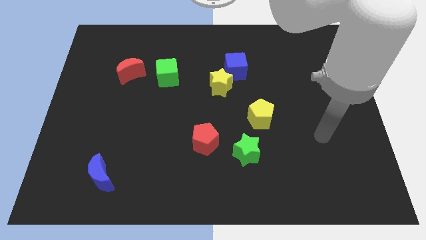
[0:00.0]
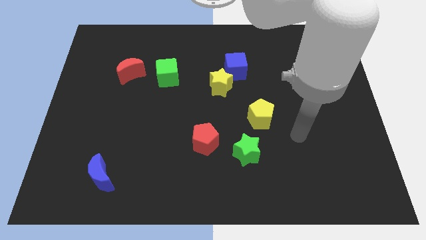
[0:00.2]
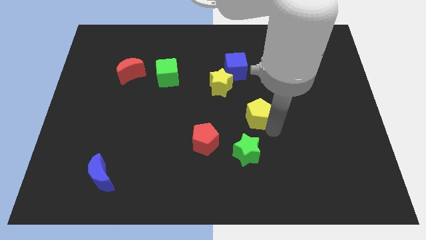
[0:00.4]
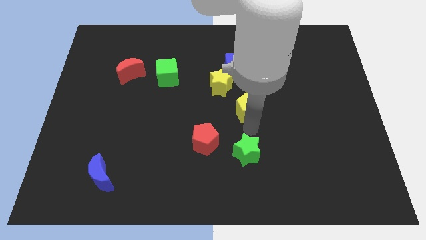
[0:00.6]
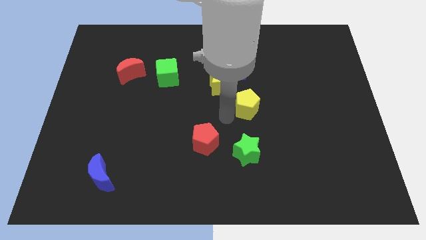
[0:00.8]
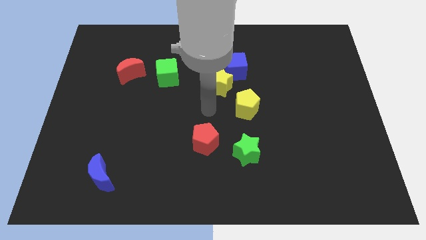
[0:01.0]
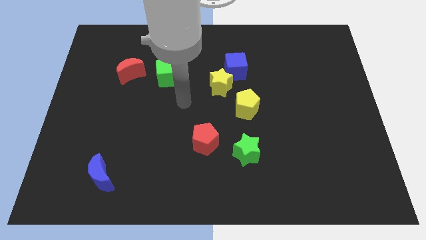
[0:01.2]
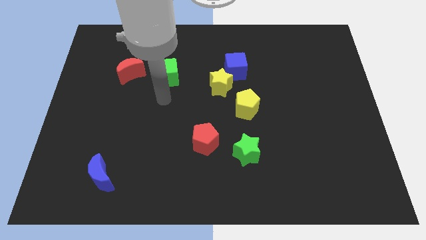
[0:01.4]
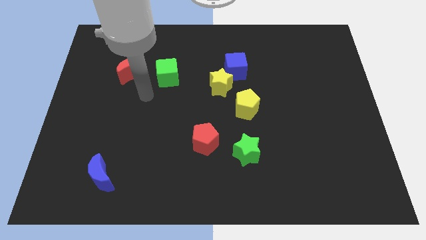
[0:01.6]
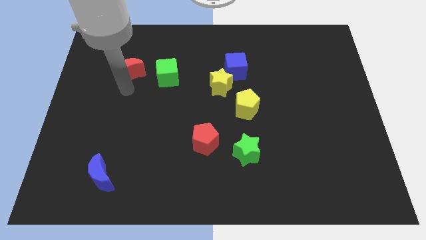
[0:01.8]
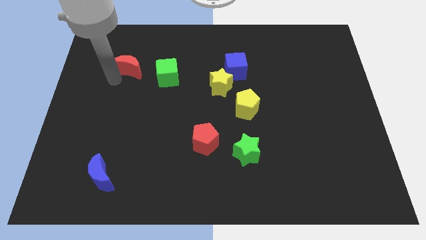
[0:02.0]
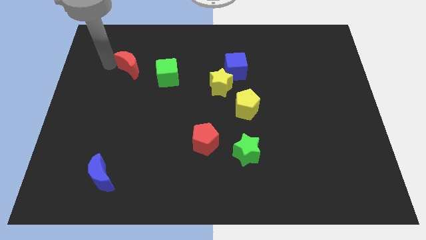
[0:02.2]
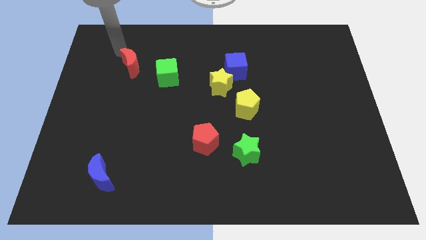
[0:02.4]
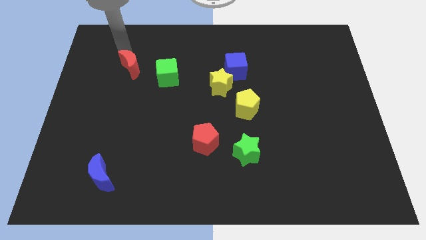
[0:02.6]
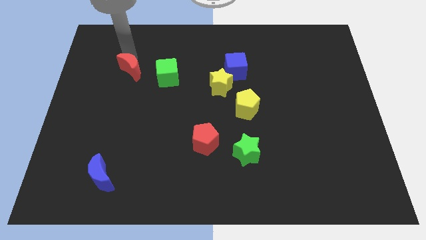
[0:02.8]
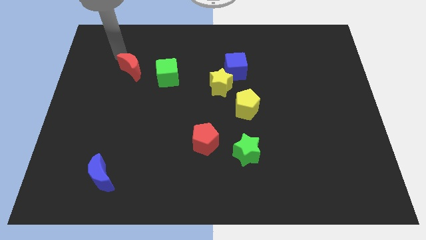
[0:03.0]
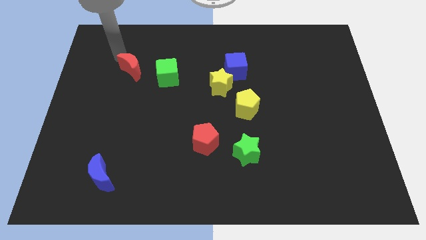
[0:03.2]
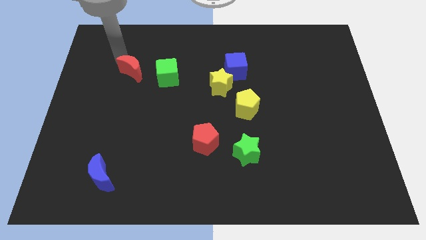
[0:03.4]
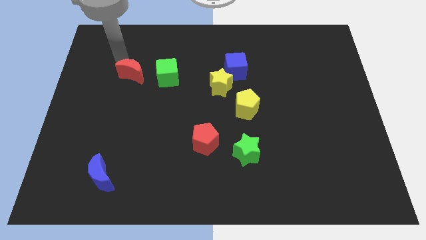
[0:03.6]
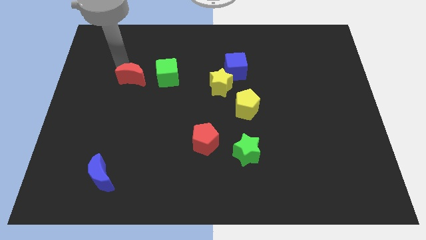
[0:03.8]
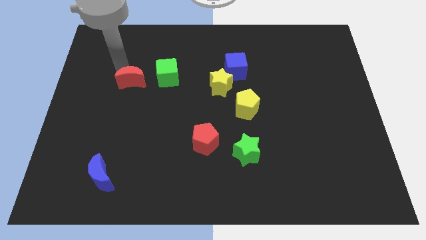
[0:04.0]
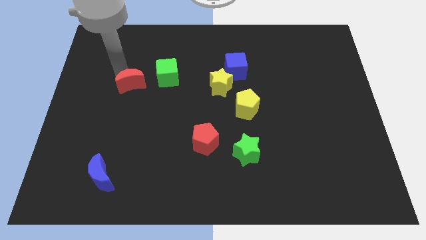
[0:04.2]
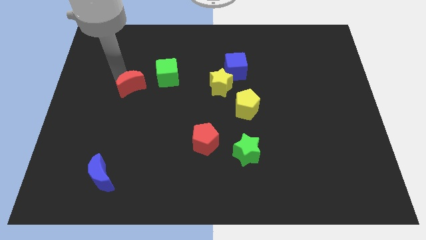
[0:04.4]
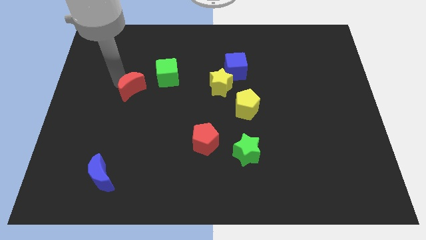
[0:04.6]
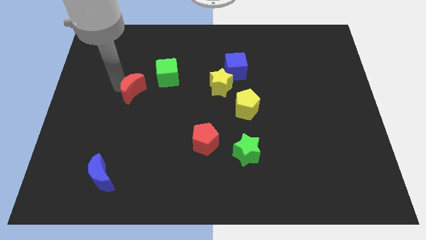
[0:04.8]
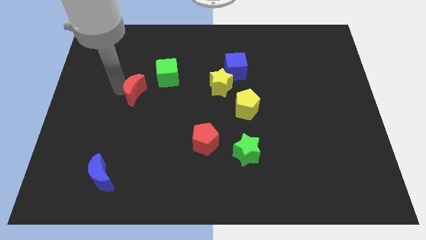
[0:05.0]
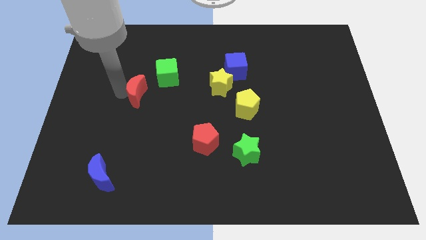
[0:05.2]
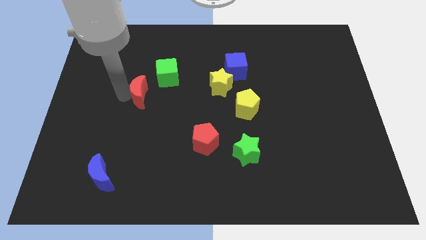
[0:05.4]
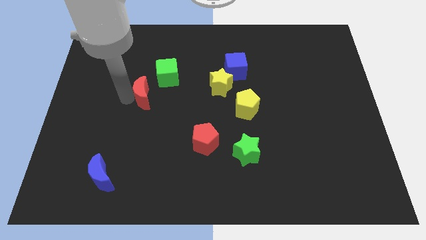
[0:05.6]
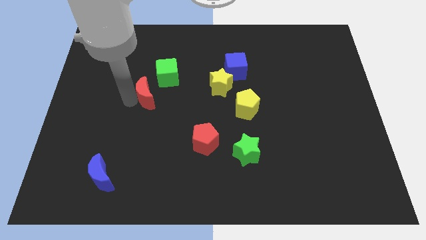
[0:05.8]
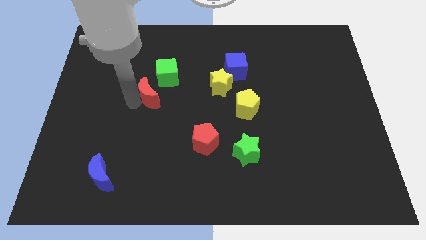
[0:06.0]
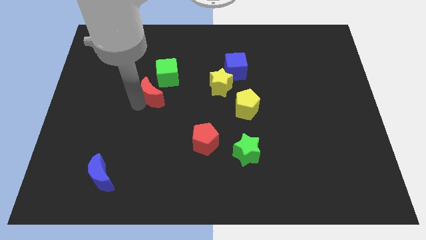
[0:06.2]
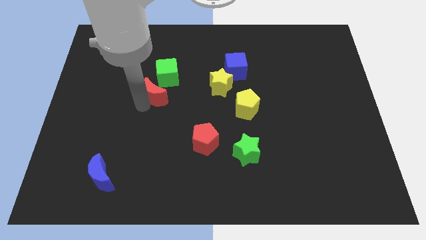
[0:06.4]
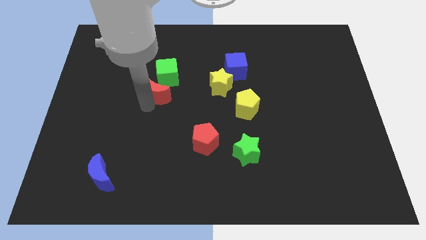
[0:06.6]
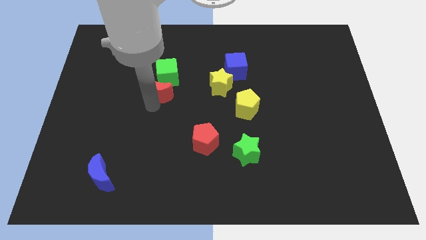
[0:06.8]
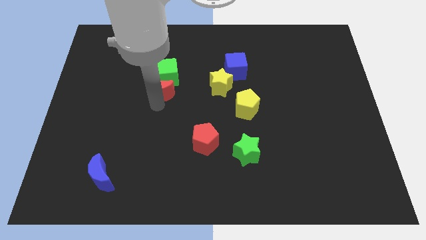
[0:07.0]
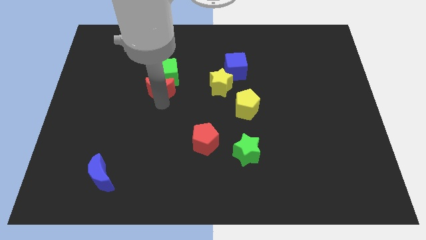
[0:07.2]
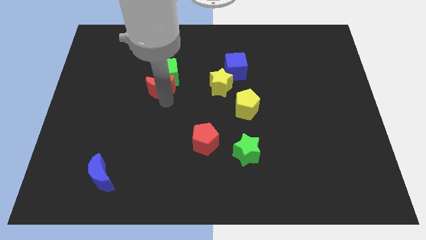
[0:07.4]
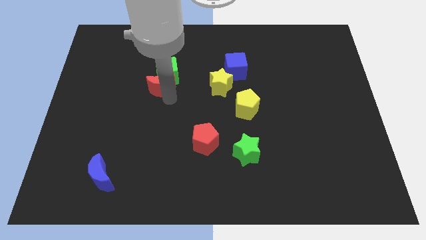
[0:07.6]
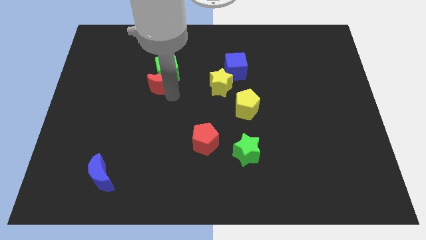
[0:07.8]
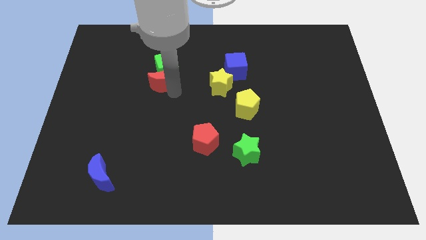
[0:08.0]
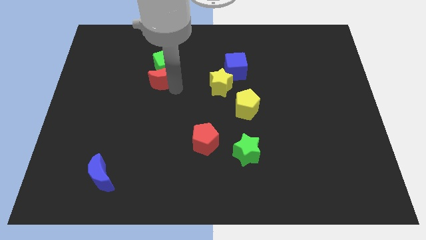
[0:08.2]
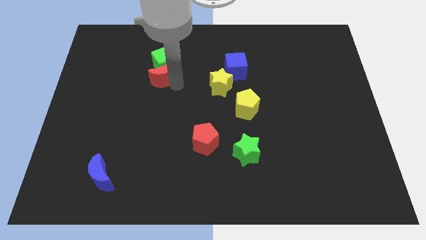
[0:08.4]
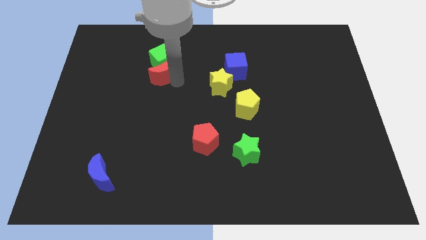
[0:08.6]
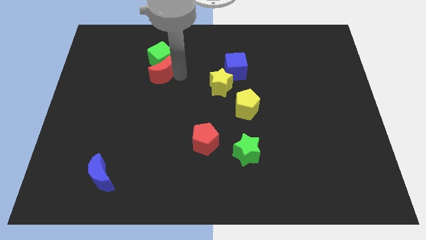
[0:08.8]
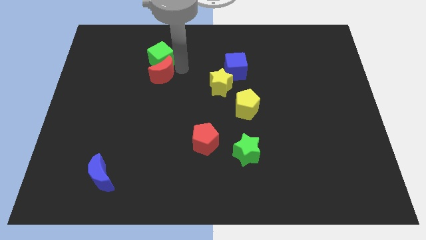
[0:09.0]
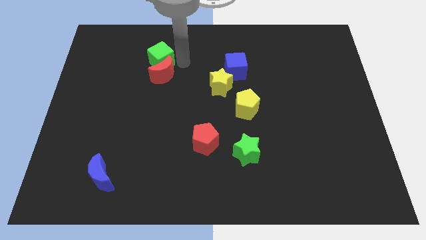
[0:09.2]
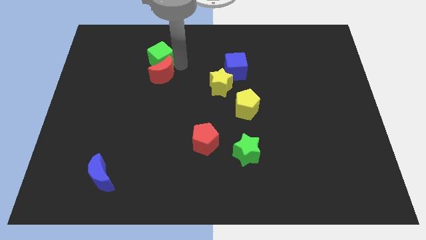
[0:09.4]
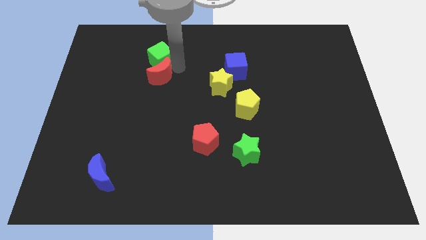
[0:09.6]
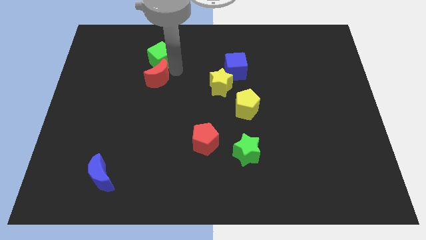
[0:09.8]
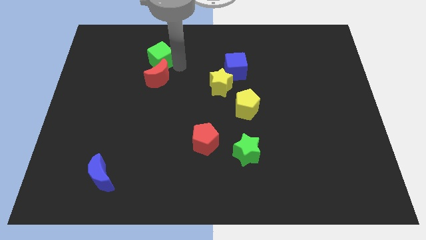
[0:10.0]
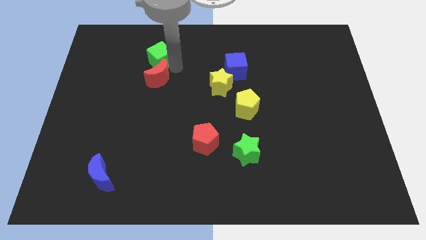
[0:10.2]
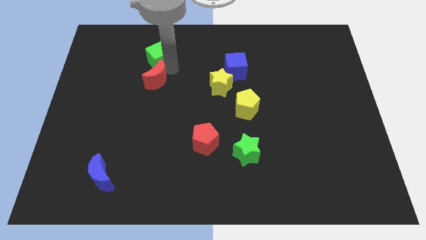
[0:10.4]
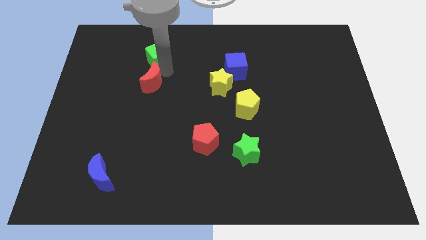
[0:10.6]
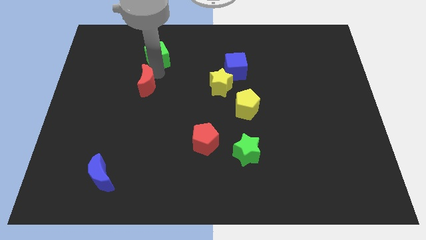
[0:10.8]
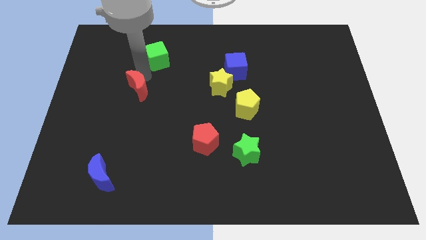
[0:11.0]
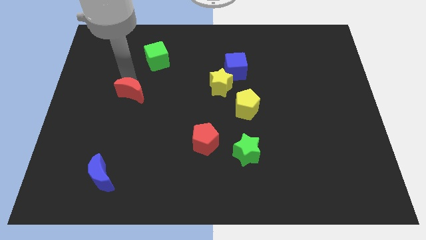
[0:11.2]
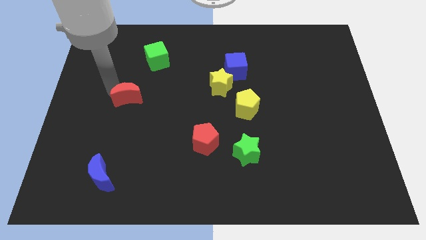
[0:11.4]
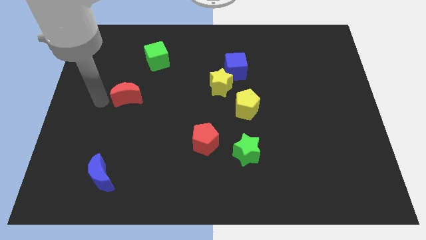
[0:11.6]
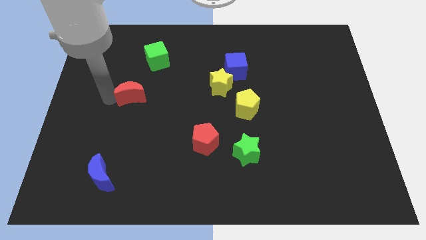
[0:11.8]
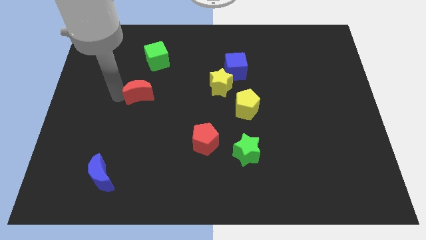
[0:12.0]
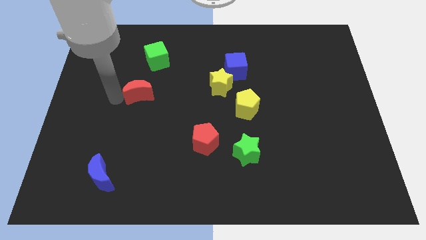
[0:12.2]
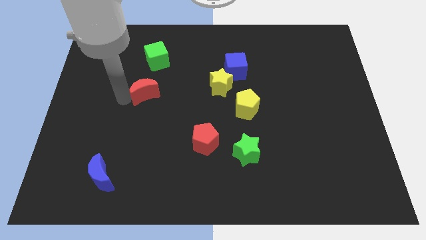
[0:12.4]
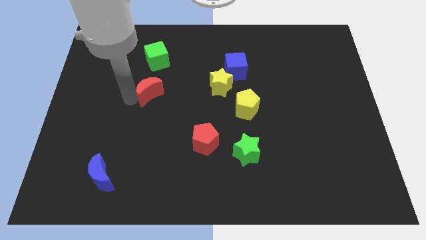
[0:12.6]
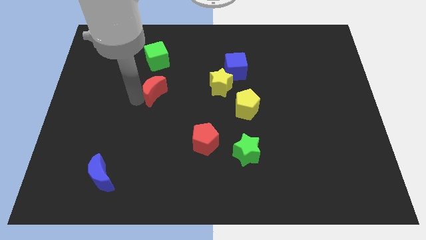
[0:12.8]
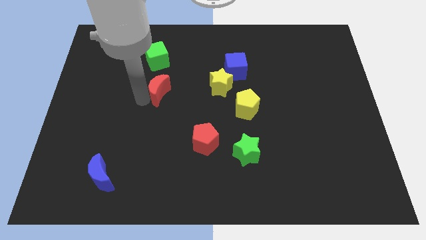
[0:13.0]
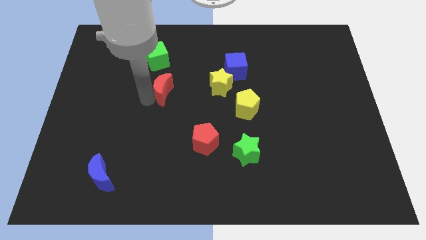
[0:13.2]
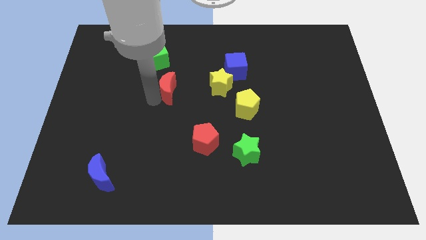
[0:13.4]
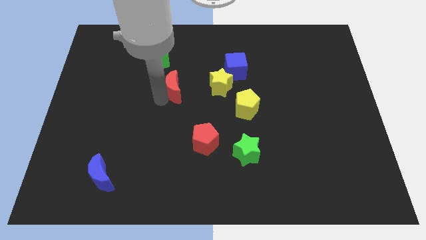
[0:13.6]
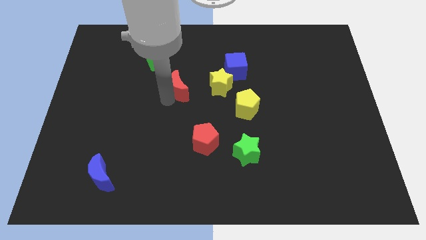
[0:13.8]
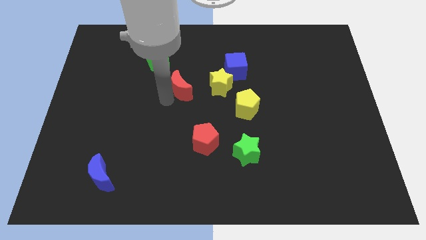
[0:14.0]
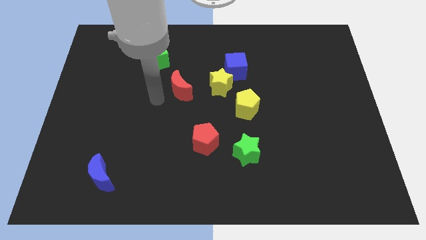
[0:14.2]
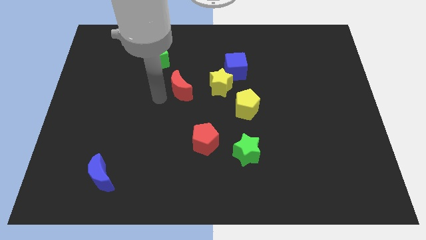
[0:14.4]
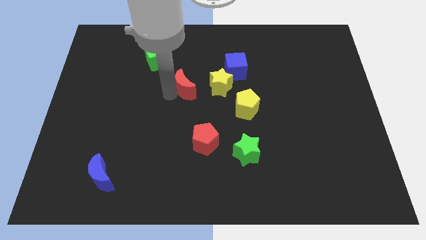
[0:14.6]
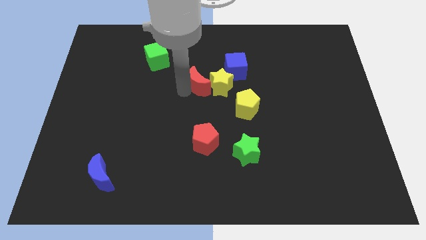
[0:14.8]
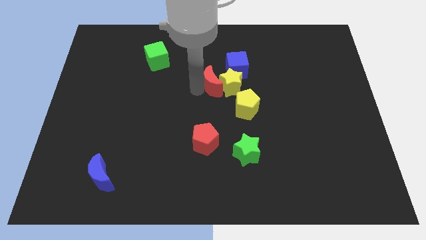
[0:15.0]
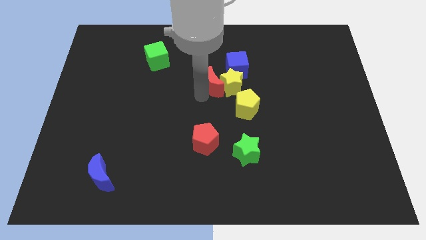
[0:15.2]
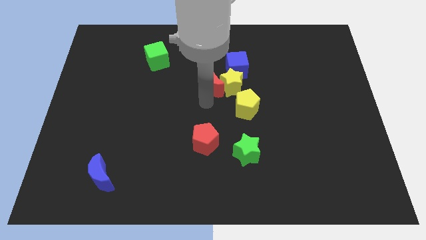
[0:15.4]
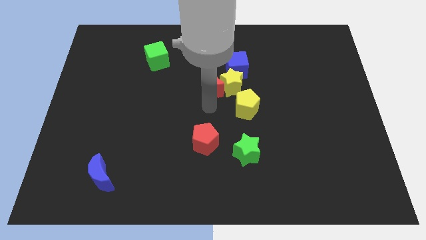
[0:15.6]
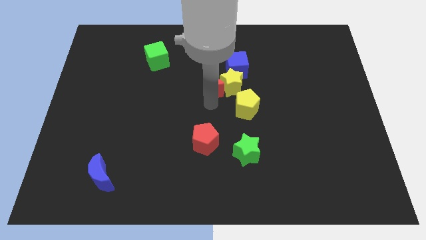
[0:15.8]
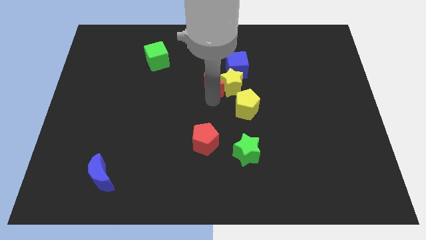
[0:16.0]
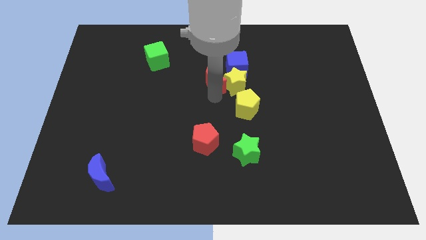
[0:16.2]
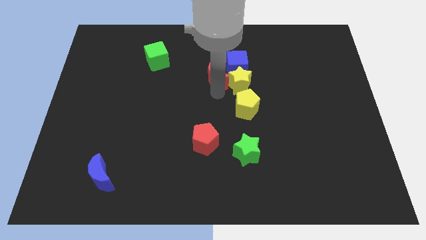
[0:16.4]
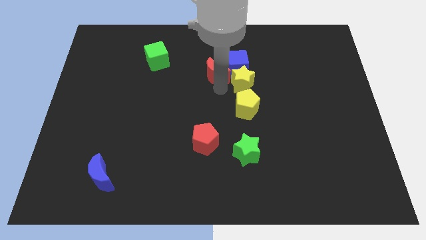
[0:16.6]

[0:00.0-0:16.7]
push the red moon towards the blue cube
